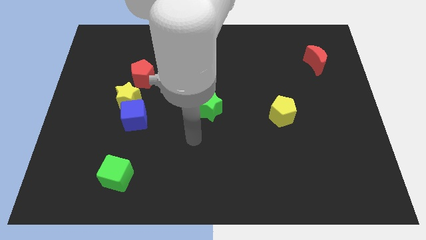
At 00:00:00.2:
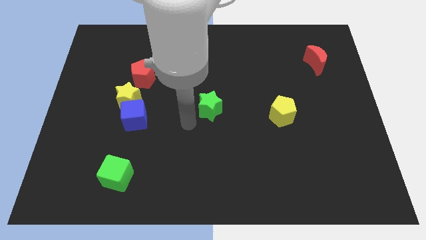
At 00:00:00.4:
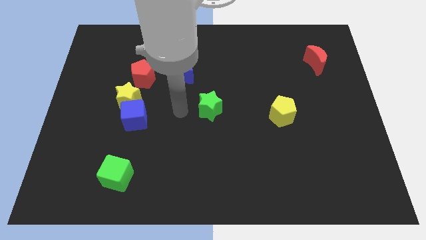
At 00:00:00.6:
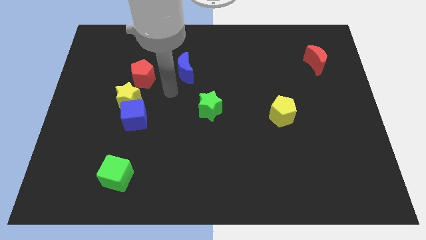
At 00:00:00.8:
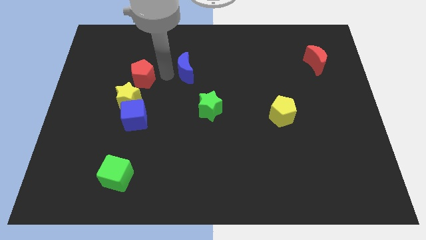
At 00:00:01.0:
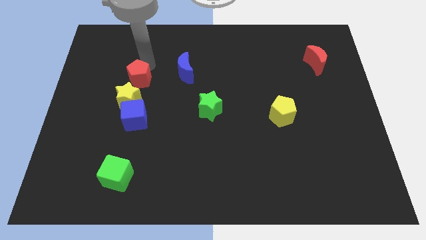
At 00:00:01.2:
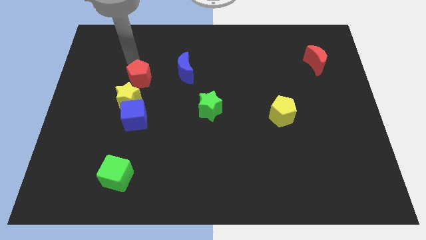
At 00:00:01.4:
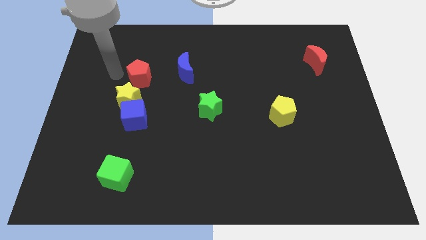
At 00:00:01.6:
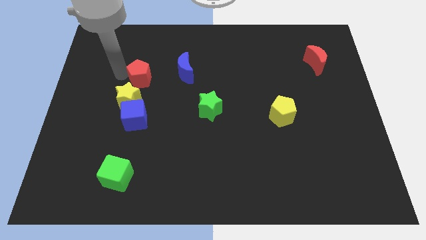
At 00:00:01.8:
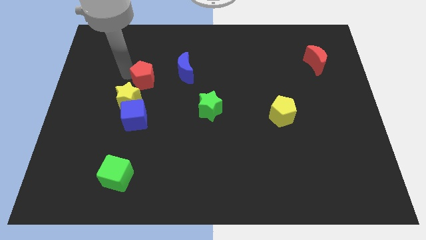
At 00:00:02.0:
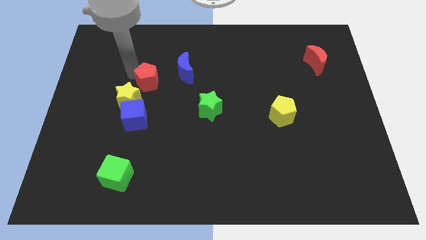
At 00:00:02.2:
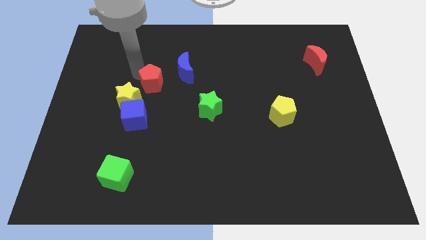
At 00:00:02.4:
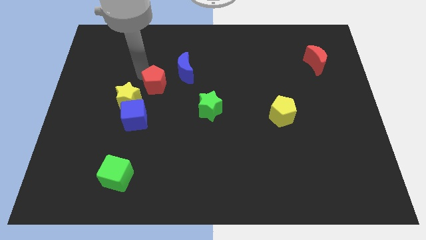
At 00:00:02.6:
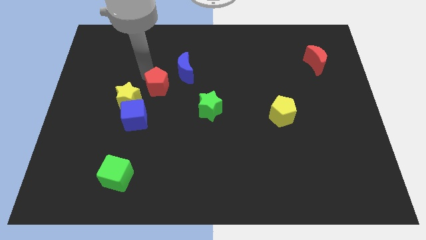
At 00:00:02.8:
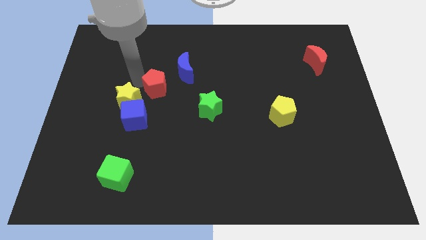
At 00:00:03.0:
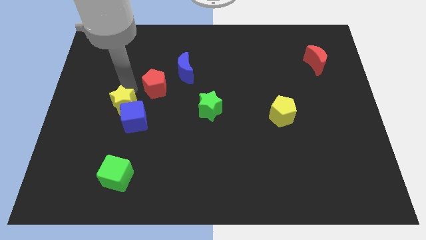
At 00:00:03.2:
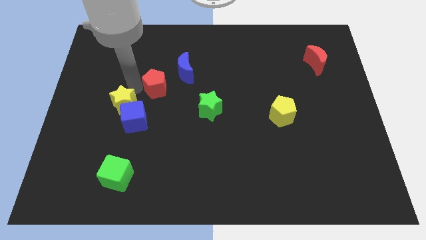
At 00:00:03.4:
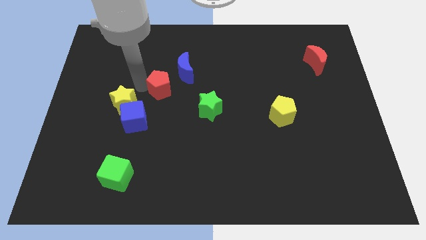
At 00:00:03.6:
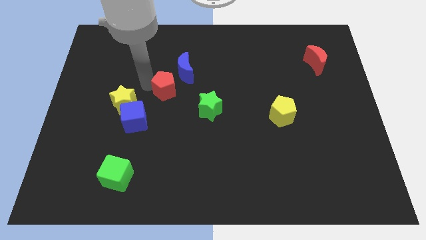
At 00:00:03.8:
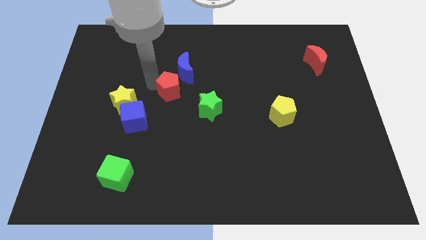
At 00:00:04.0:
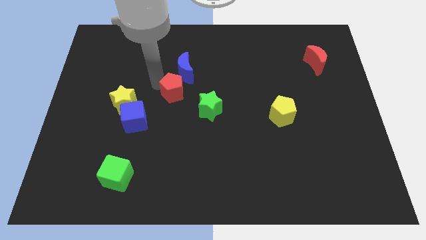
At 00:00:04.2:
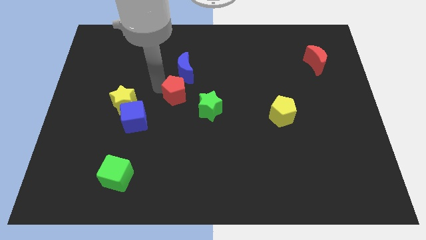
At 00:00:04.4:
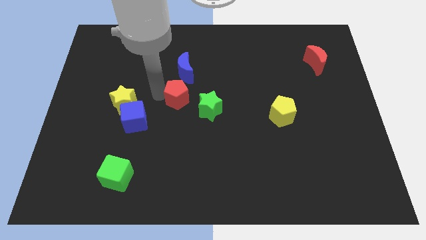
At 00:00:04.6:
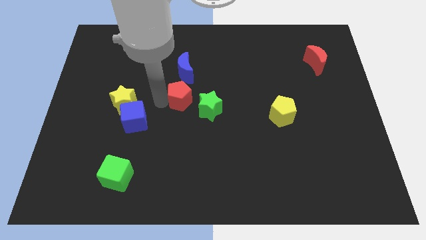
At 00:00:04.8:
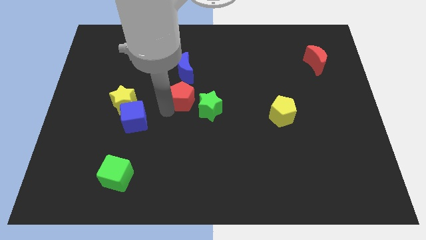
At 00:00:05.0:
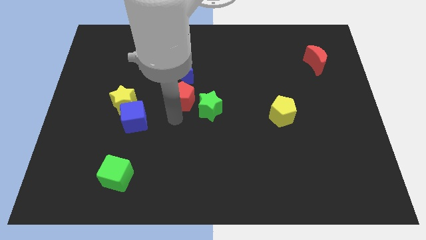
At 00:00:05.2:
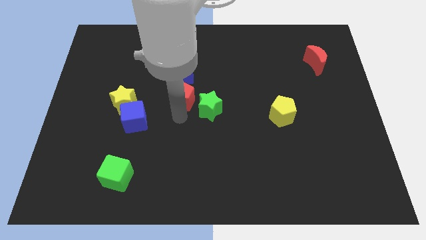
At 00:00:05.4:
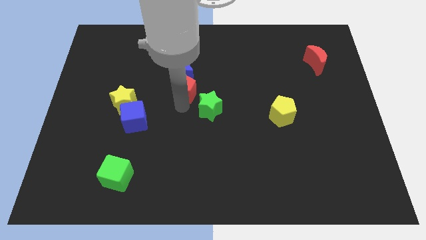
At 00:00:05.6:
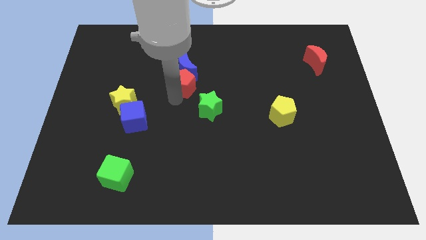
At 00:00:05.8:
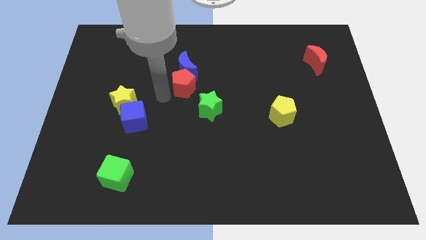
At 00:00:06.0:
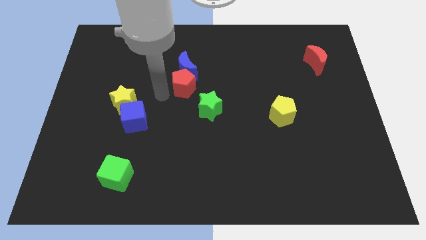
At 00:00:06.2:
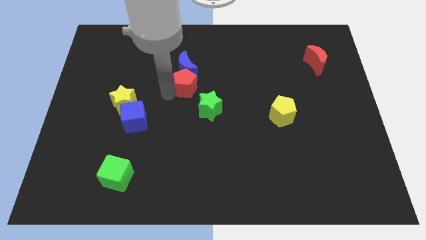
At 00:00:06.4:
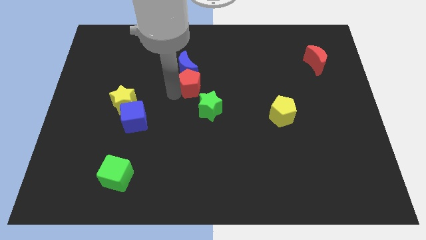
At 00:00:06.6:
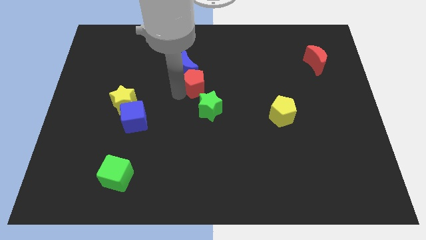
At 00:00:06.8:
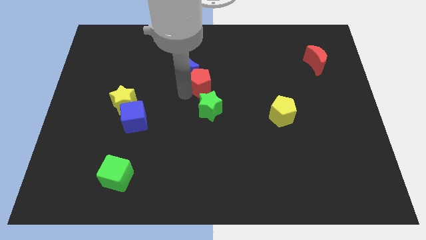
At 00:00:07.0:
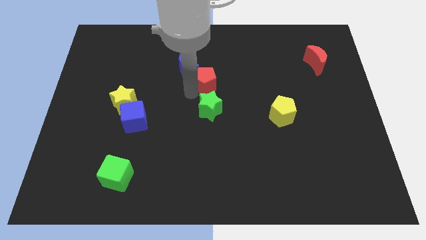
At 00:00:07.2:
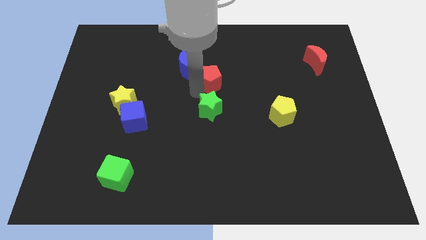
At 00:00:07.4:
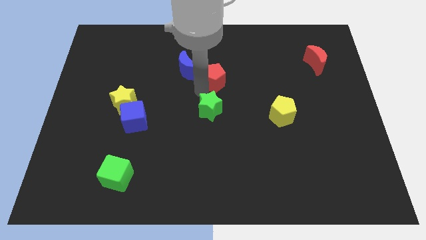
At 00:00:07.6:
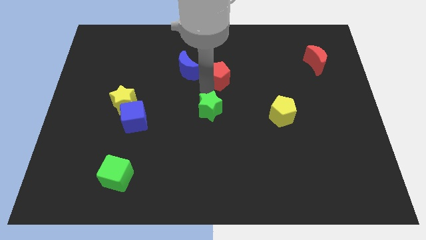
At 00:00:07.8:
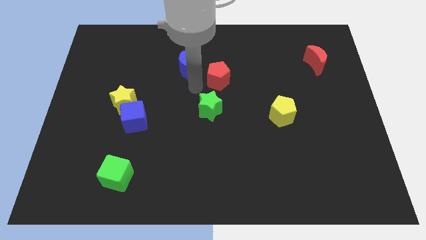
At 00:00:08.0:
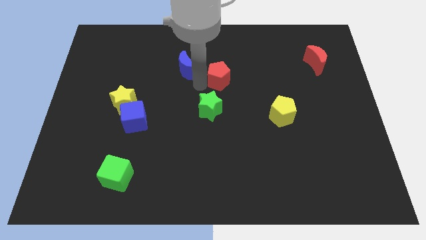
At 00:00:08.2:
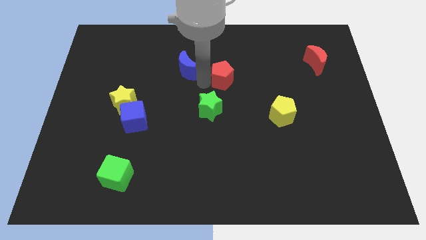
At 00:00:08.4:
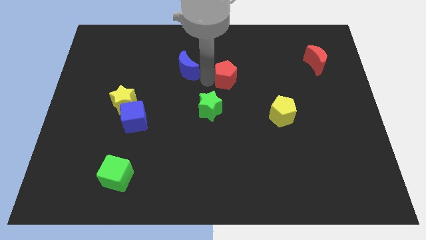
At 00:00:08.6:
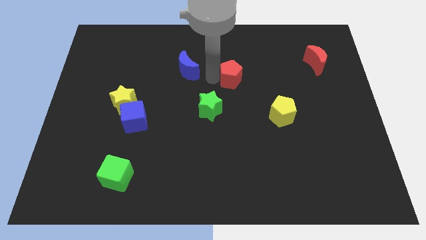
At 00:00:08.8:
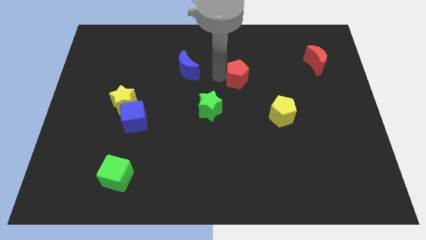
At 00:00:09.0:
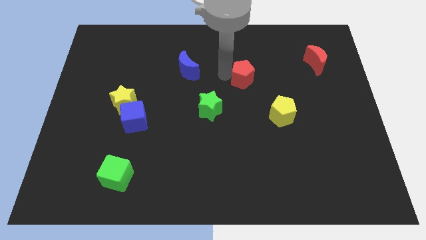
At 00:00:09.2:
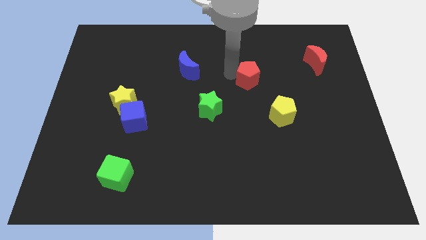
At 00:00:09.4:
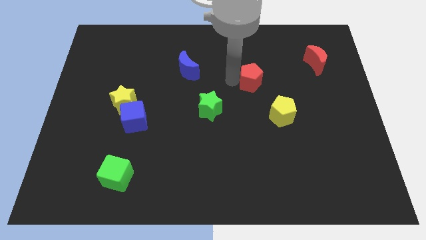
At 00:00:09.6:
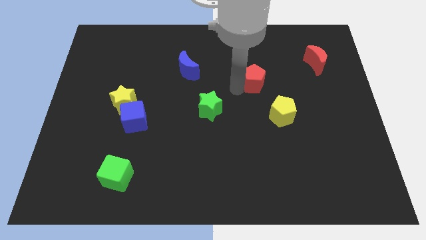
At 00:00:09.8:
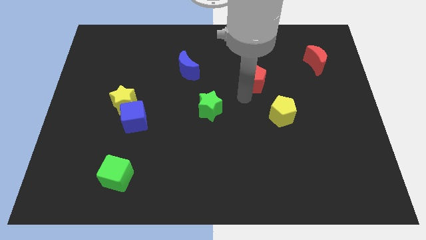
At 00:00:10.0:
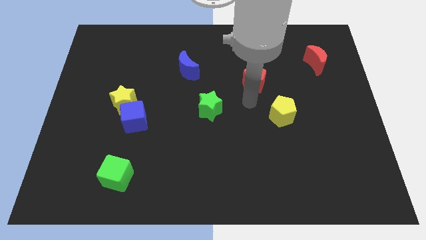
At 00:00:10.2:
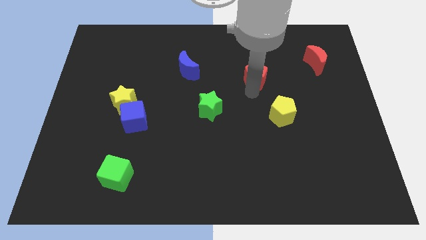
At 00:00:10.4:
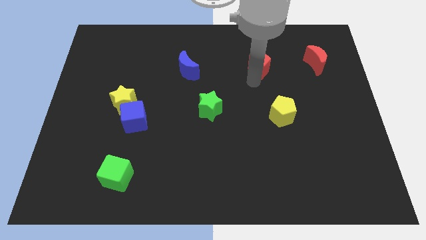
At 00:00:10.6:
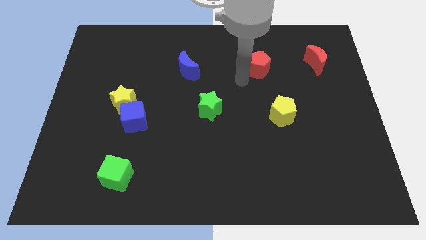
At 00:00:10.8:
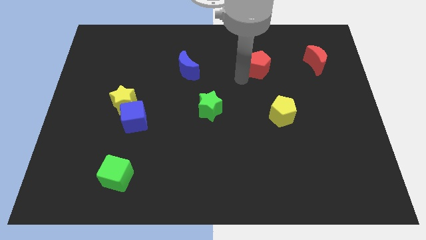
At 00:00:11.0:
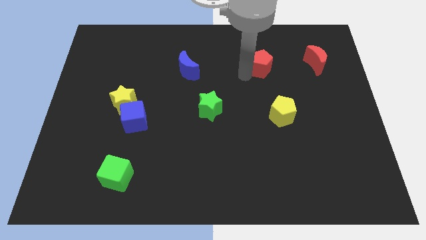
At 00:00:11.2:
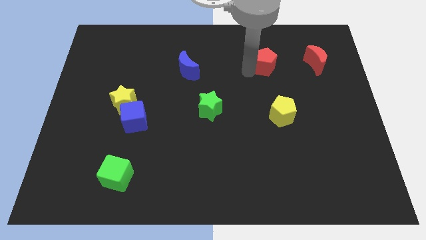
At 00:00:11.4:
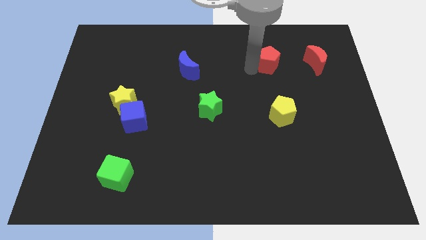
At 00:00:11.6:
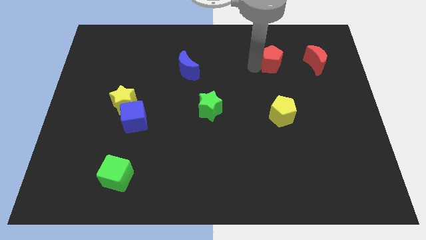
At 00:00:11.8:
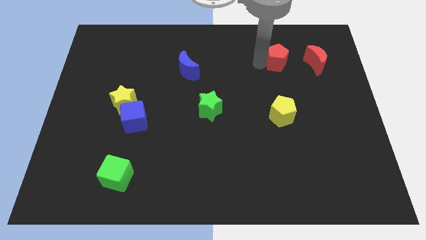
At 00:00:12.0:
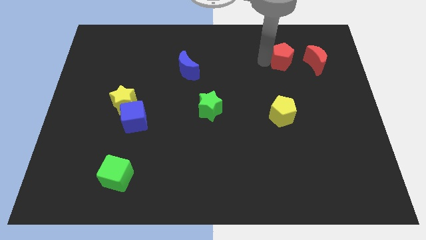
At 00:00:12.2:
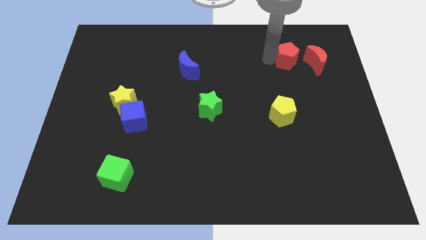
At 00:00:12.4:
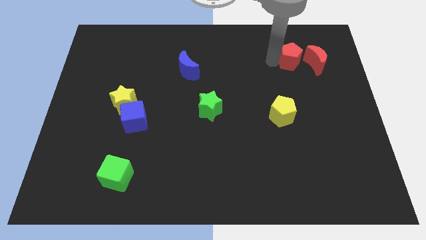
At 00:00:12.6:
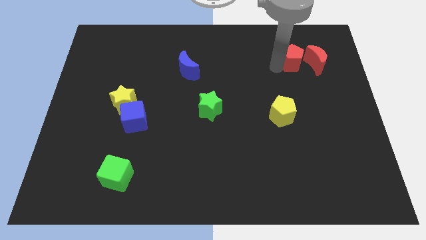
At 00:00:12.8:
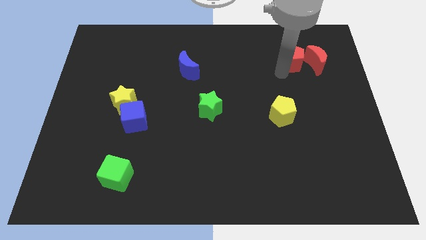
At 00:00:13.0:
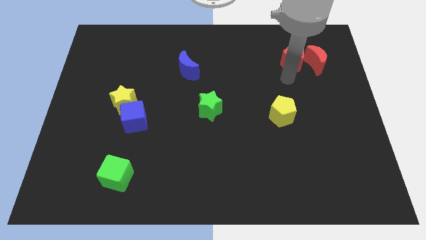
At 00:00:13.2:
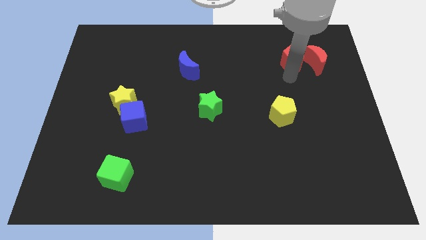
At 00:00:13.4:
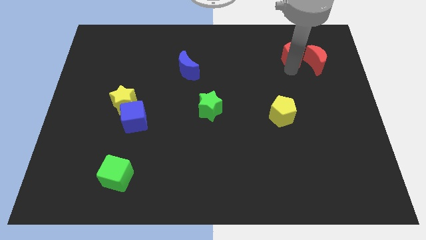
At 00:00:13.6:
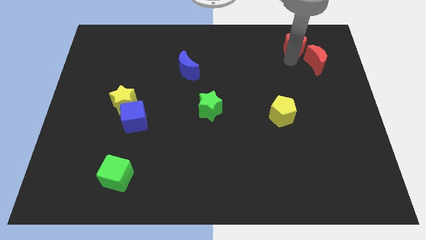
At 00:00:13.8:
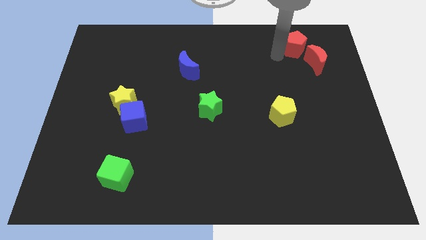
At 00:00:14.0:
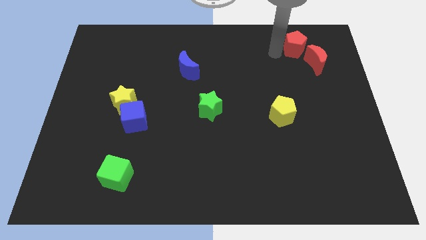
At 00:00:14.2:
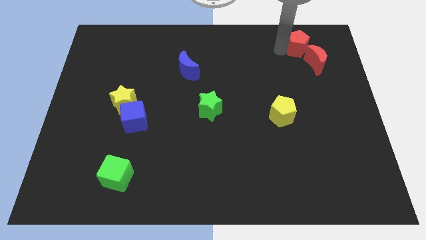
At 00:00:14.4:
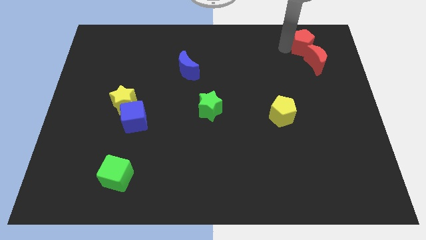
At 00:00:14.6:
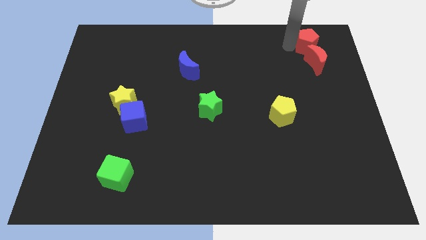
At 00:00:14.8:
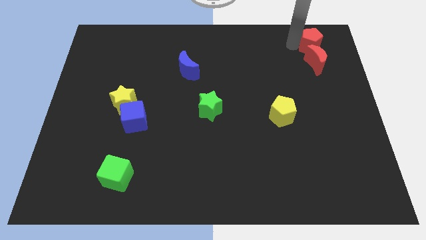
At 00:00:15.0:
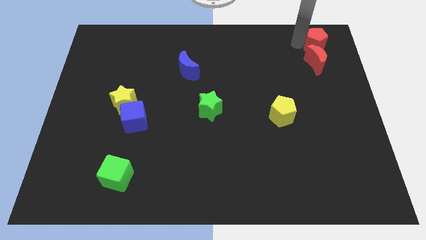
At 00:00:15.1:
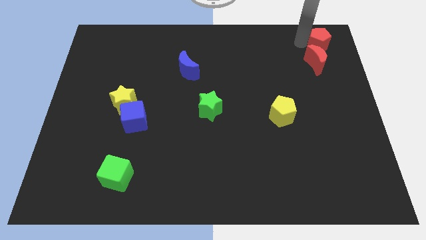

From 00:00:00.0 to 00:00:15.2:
put the red pentagon to the top right
